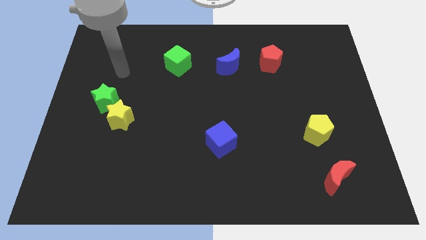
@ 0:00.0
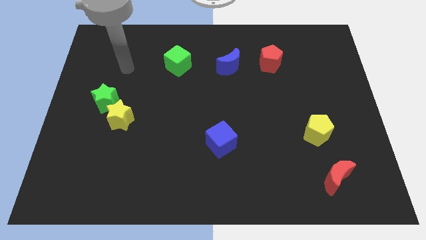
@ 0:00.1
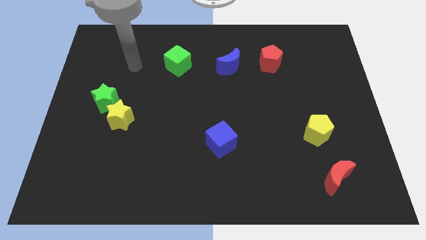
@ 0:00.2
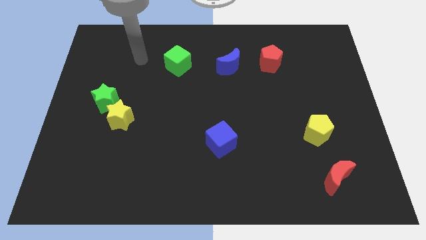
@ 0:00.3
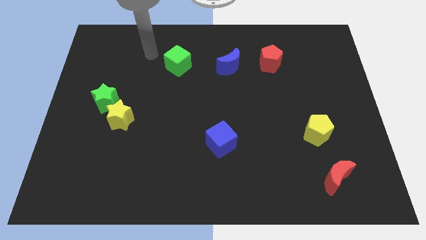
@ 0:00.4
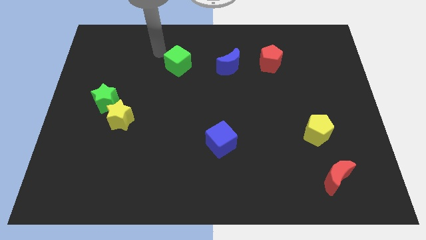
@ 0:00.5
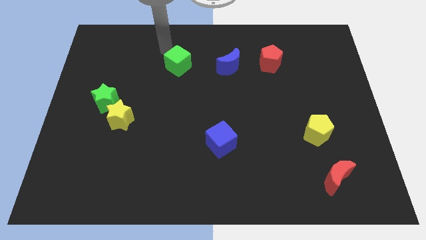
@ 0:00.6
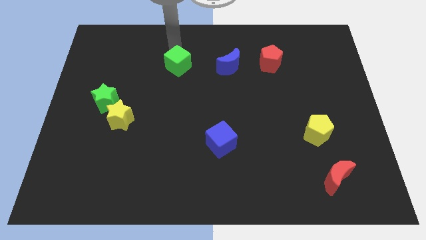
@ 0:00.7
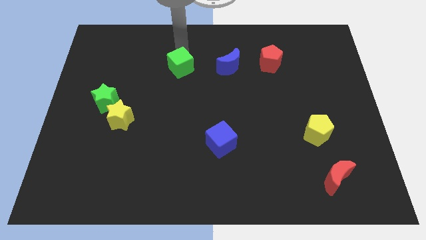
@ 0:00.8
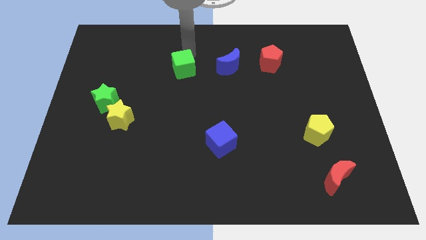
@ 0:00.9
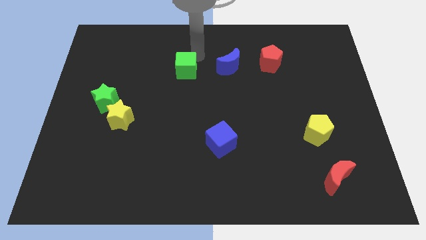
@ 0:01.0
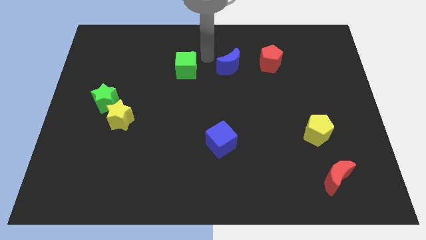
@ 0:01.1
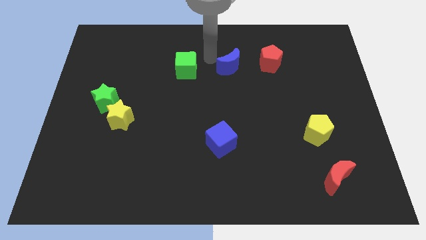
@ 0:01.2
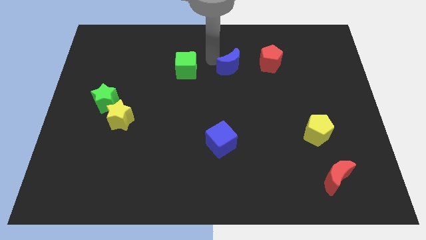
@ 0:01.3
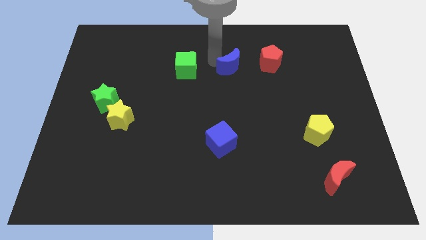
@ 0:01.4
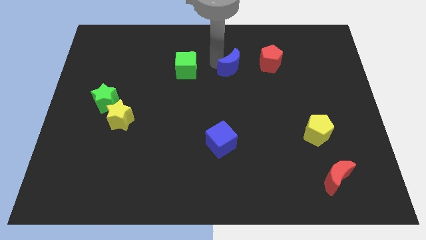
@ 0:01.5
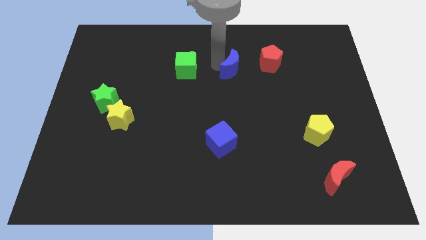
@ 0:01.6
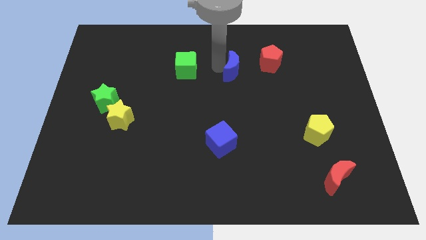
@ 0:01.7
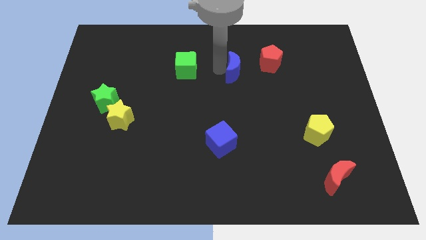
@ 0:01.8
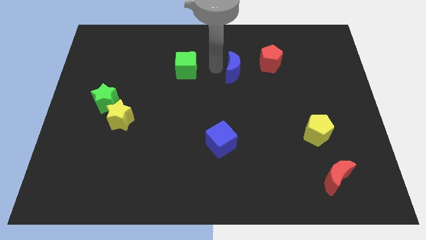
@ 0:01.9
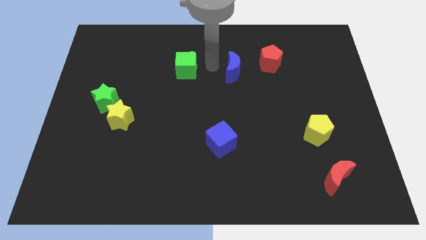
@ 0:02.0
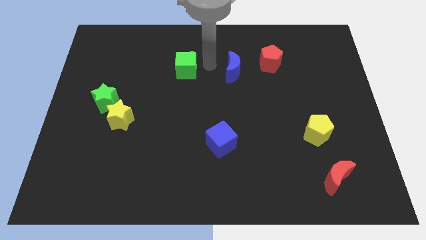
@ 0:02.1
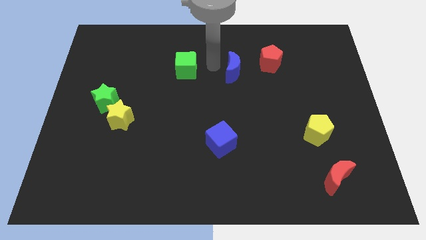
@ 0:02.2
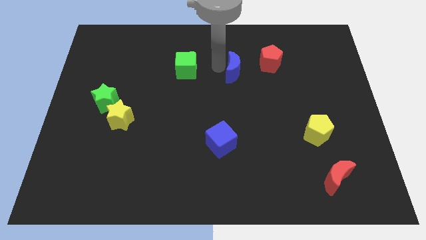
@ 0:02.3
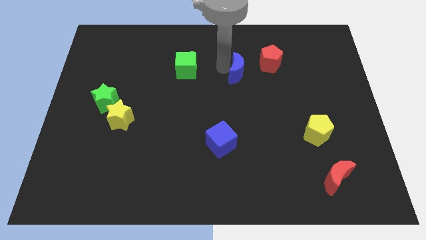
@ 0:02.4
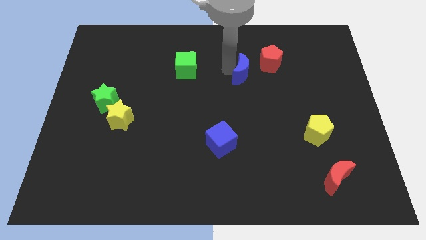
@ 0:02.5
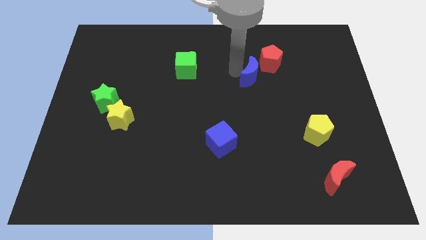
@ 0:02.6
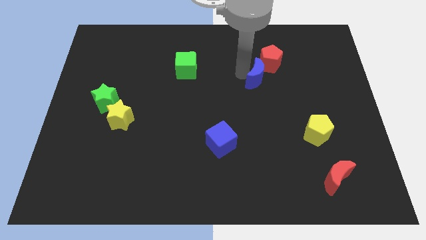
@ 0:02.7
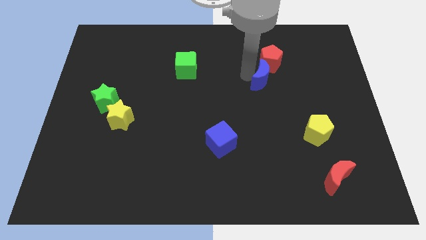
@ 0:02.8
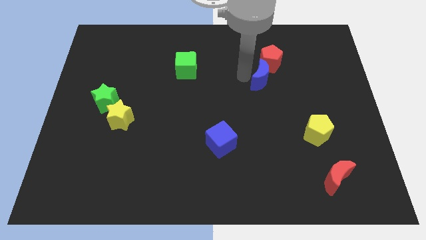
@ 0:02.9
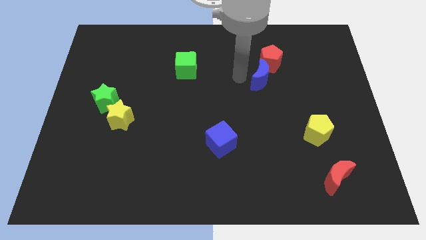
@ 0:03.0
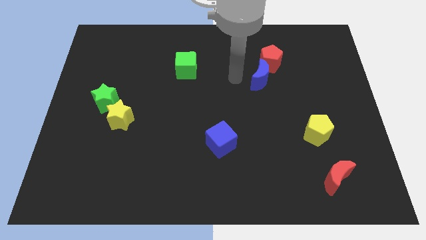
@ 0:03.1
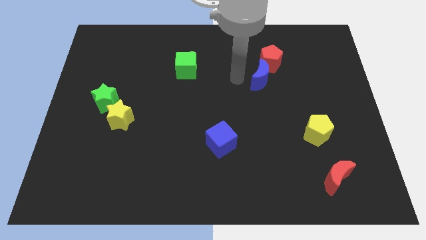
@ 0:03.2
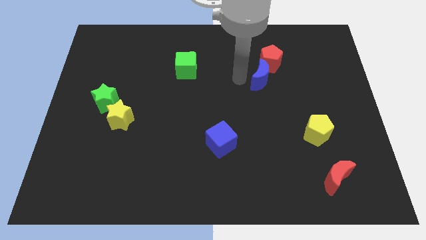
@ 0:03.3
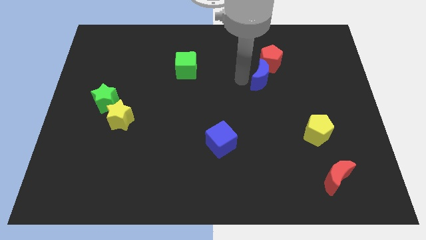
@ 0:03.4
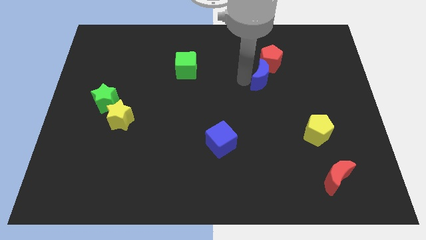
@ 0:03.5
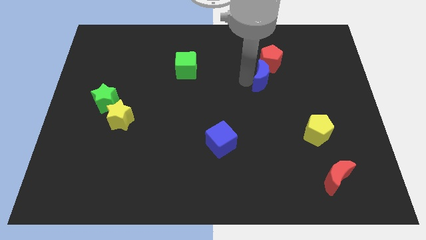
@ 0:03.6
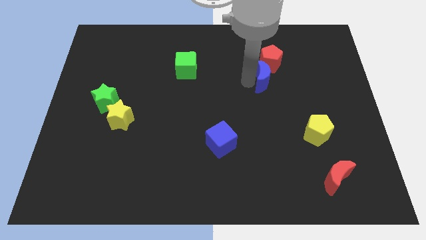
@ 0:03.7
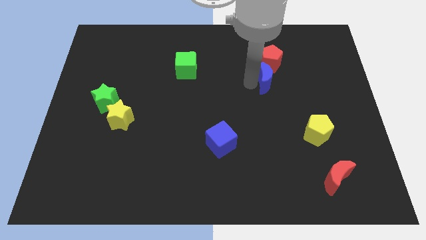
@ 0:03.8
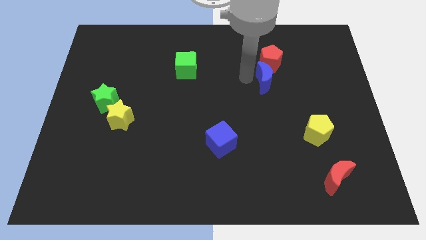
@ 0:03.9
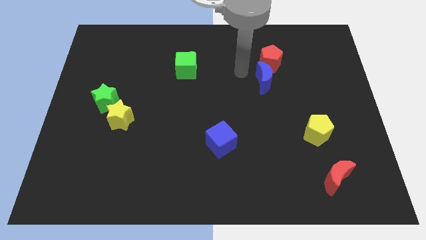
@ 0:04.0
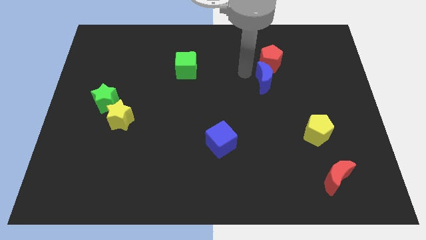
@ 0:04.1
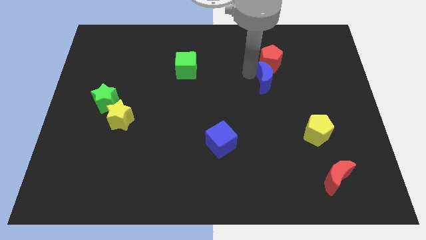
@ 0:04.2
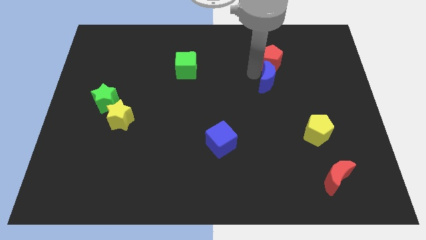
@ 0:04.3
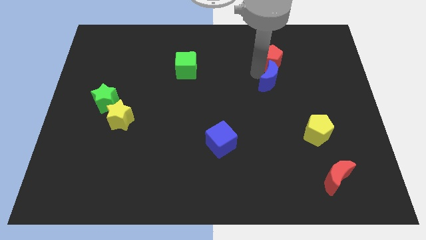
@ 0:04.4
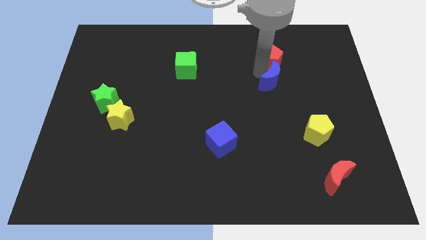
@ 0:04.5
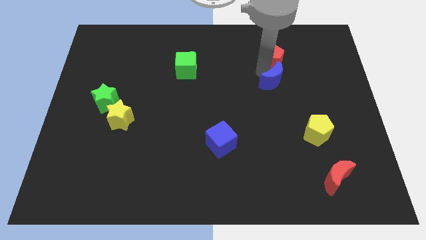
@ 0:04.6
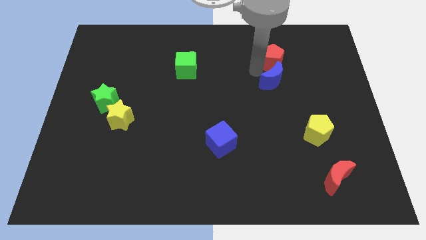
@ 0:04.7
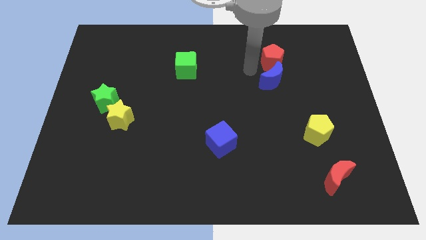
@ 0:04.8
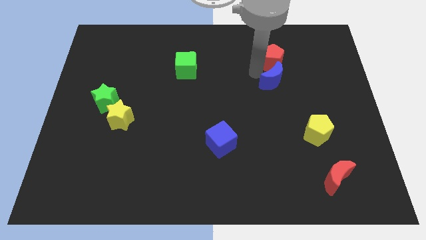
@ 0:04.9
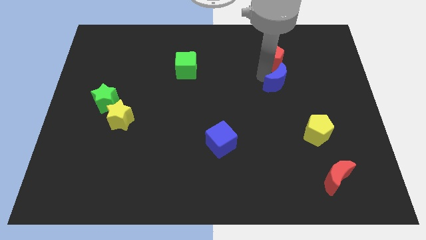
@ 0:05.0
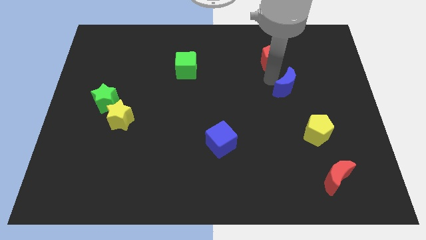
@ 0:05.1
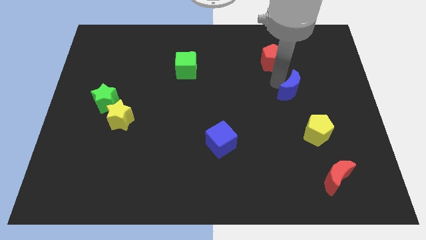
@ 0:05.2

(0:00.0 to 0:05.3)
move the blue moon above the yellow pentagon

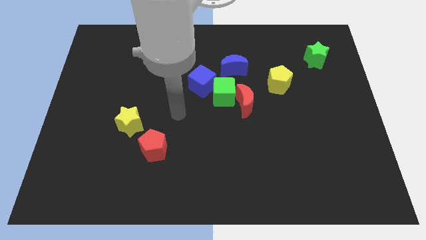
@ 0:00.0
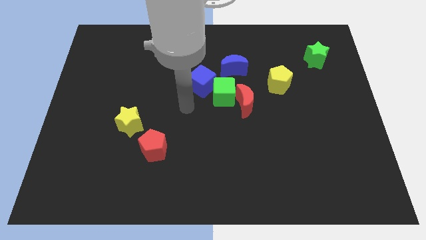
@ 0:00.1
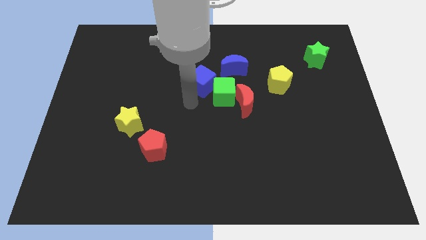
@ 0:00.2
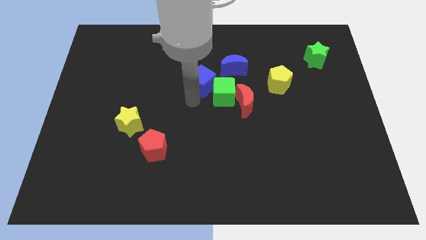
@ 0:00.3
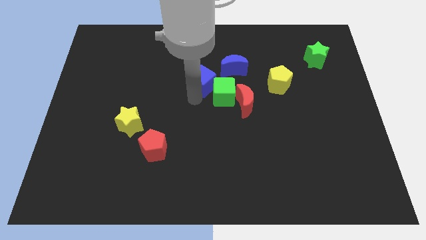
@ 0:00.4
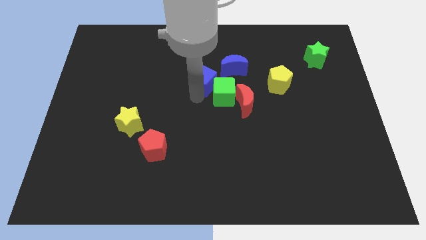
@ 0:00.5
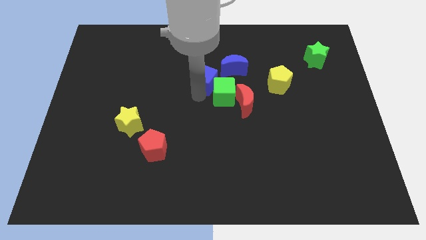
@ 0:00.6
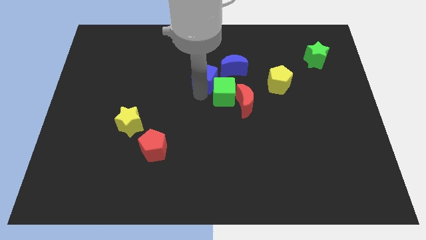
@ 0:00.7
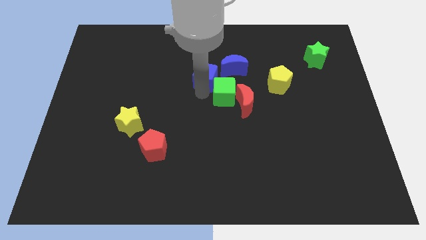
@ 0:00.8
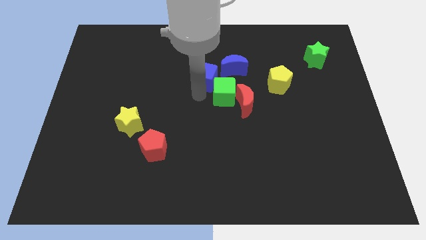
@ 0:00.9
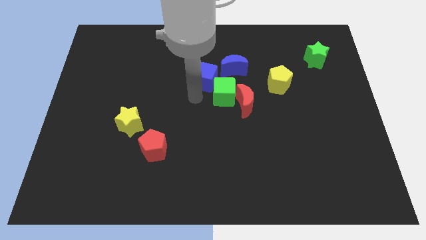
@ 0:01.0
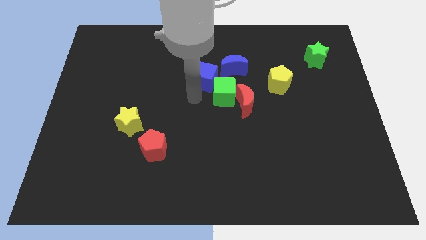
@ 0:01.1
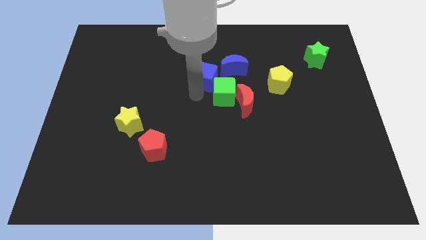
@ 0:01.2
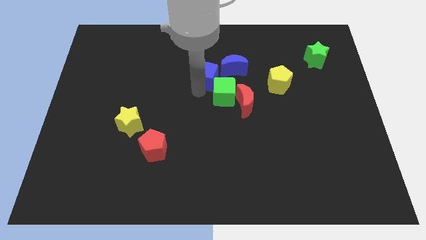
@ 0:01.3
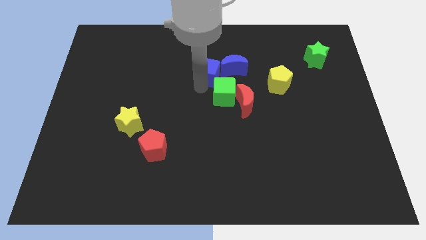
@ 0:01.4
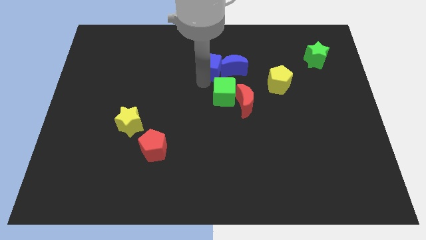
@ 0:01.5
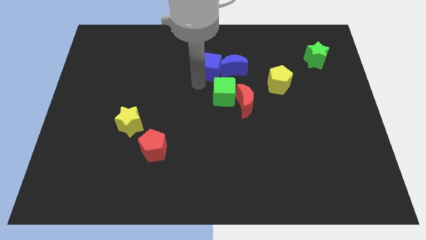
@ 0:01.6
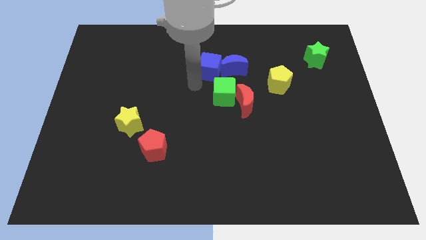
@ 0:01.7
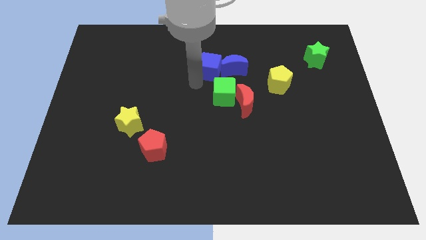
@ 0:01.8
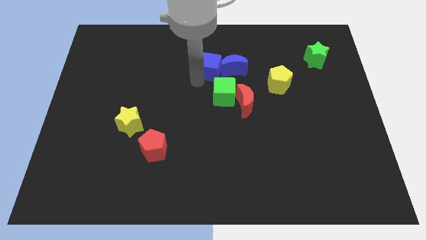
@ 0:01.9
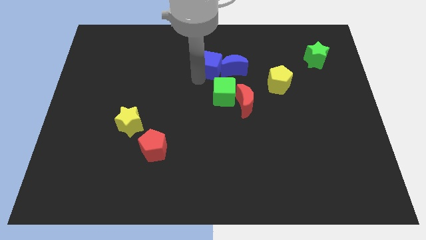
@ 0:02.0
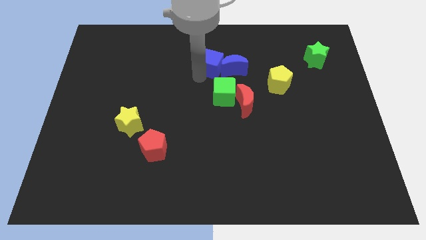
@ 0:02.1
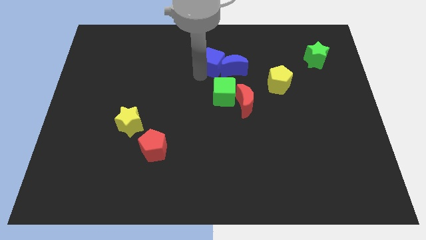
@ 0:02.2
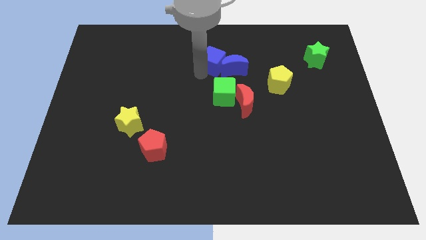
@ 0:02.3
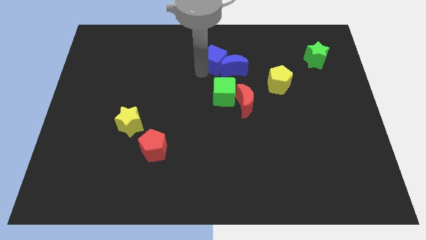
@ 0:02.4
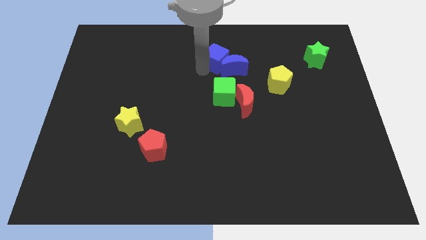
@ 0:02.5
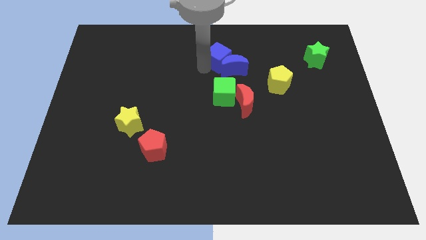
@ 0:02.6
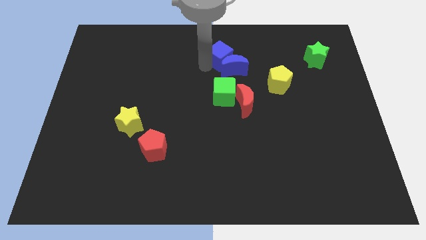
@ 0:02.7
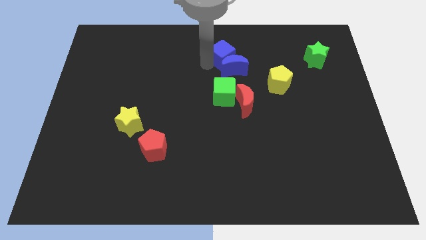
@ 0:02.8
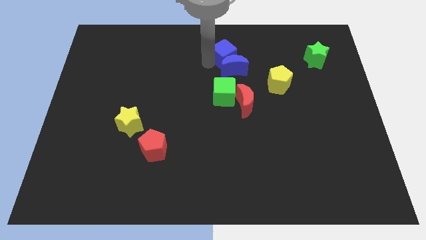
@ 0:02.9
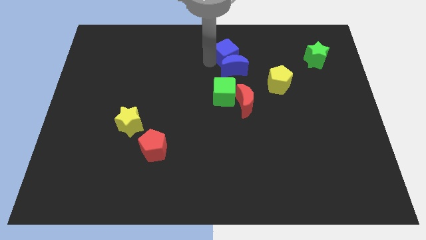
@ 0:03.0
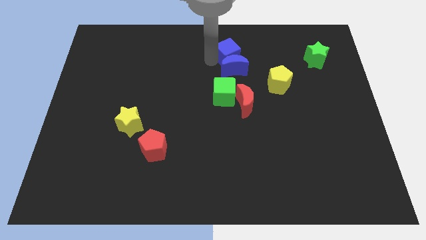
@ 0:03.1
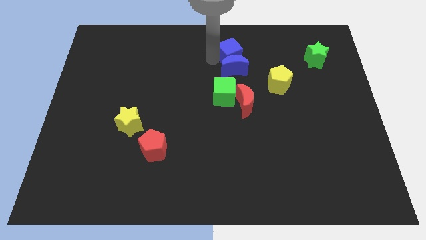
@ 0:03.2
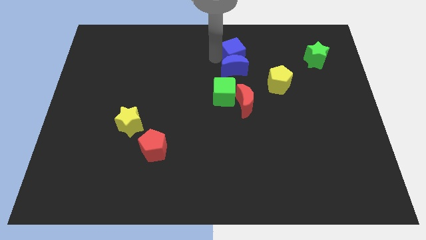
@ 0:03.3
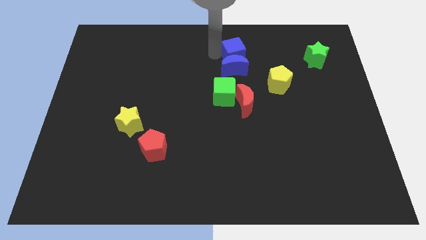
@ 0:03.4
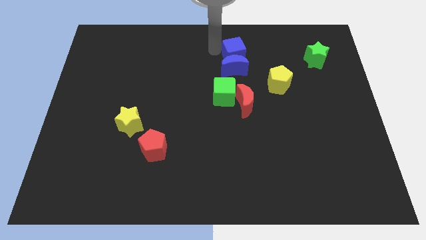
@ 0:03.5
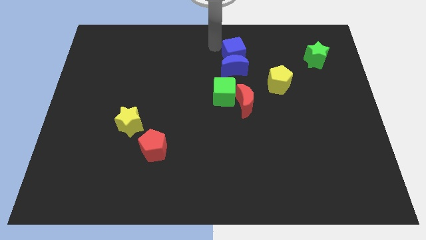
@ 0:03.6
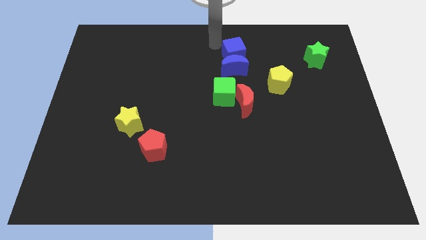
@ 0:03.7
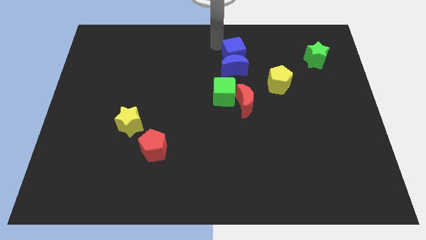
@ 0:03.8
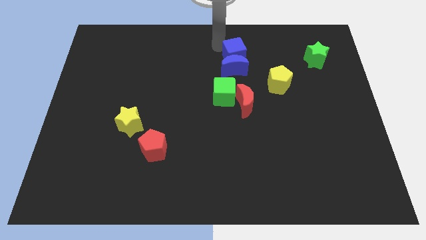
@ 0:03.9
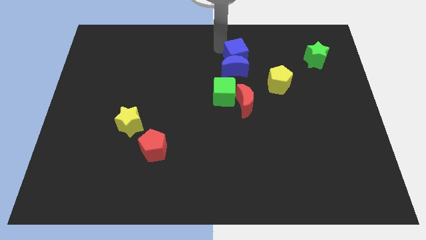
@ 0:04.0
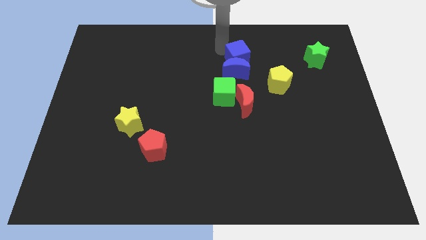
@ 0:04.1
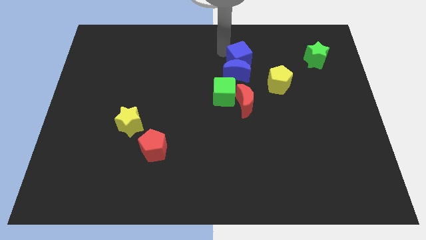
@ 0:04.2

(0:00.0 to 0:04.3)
move the blue cube to the top left of the yellow pentagon
